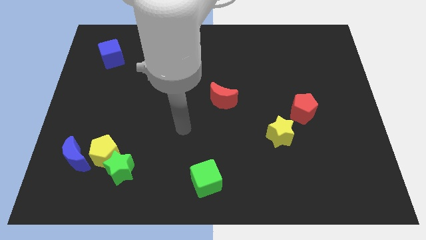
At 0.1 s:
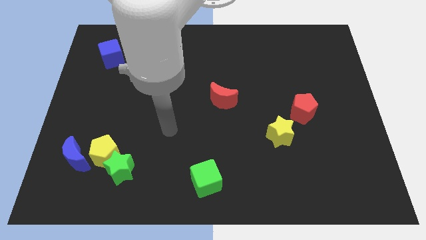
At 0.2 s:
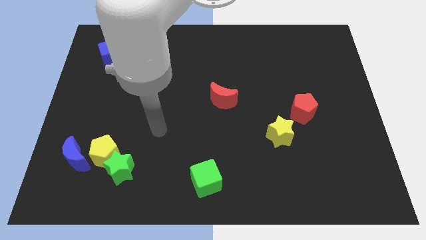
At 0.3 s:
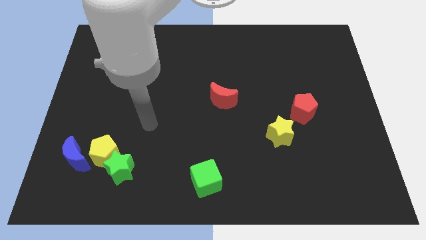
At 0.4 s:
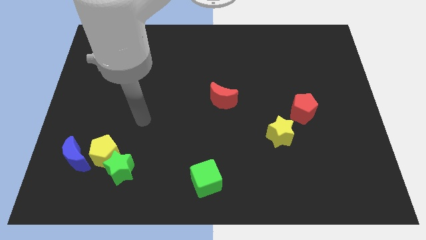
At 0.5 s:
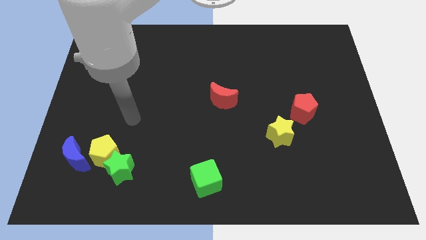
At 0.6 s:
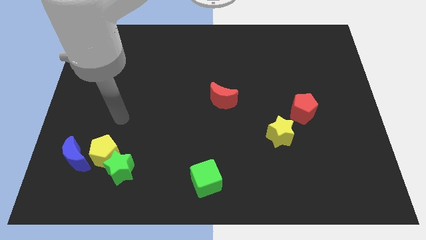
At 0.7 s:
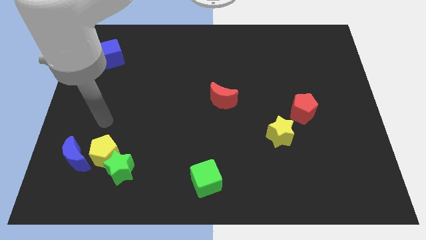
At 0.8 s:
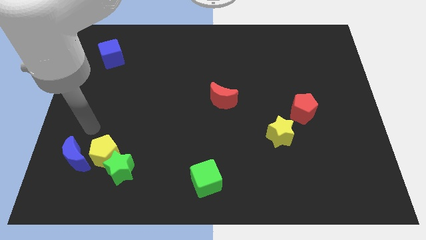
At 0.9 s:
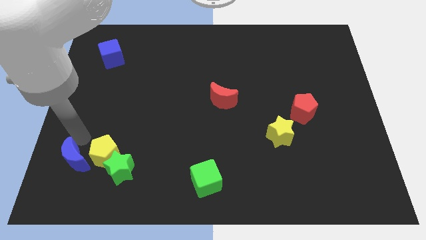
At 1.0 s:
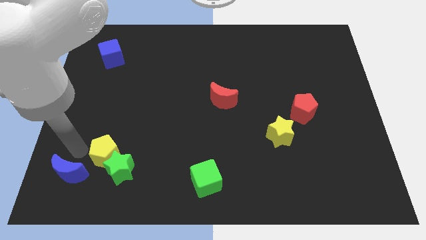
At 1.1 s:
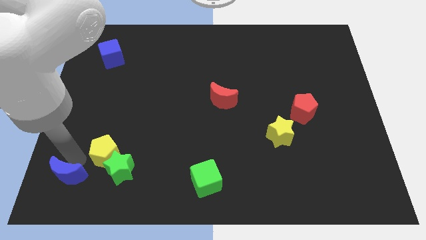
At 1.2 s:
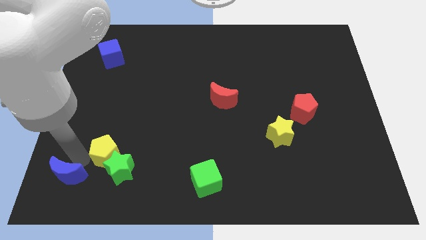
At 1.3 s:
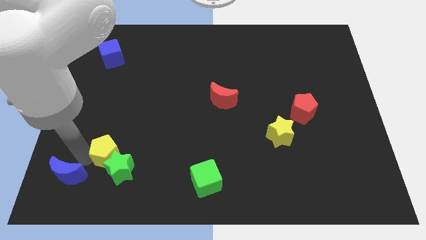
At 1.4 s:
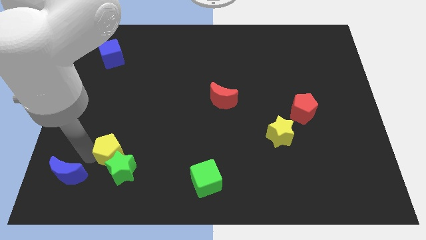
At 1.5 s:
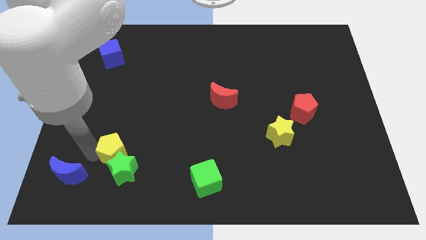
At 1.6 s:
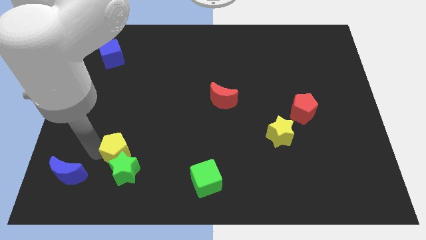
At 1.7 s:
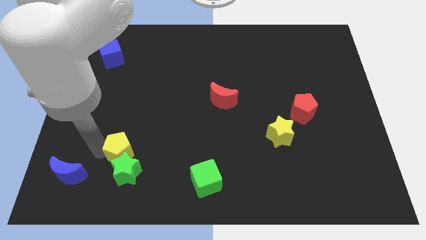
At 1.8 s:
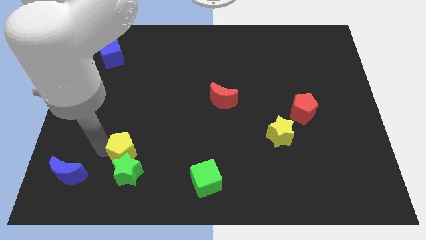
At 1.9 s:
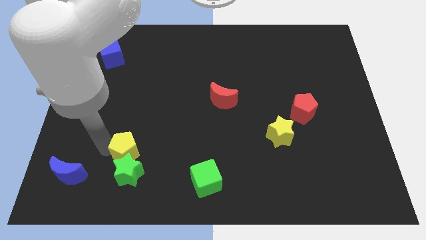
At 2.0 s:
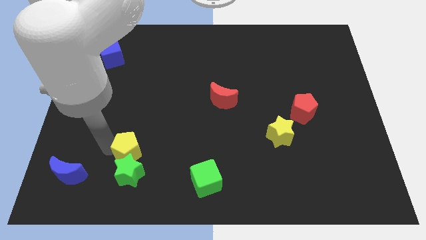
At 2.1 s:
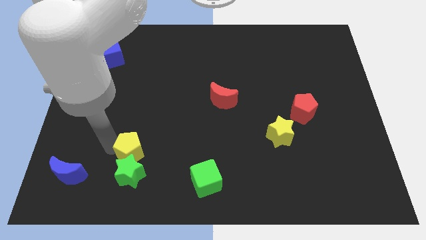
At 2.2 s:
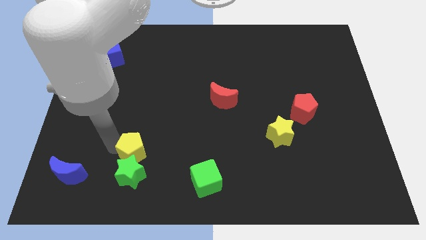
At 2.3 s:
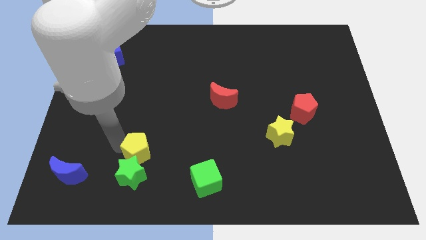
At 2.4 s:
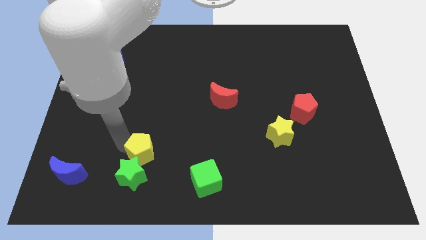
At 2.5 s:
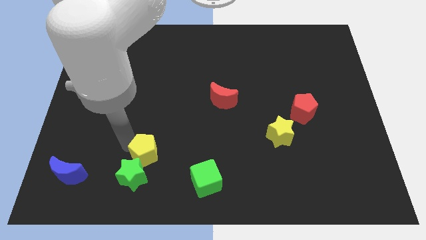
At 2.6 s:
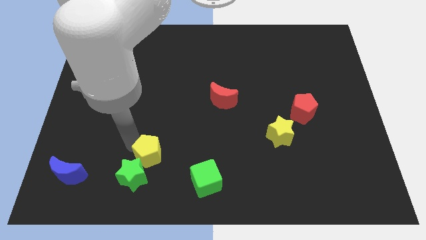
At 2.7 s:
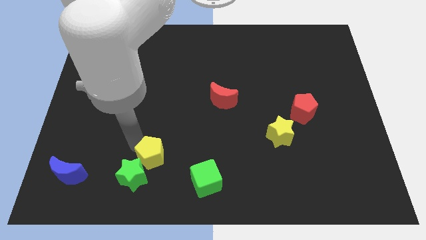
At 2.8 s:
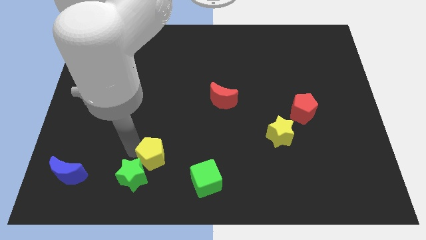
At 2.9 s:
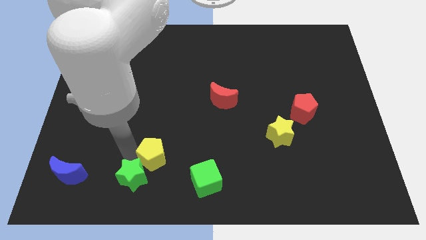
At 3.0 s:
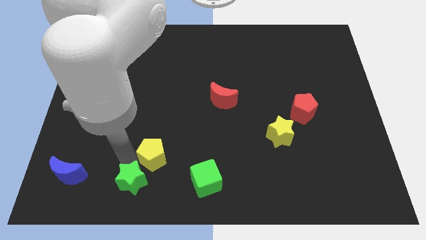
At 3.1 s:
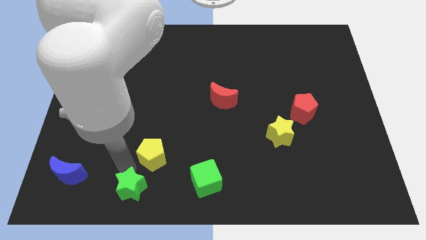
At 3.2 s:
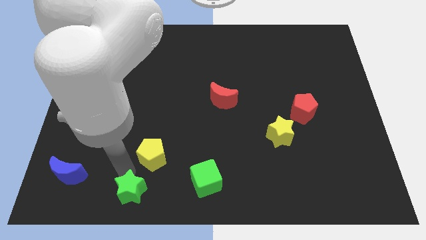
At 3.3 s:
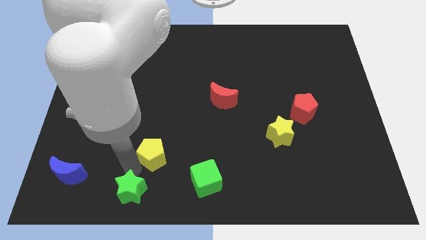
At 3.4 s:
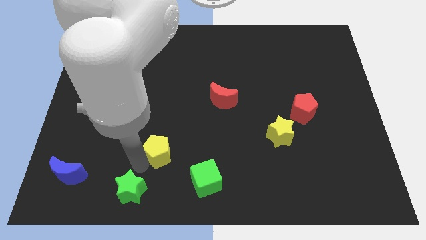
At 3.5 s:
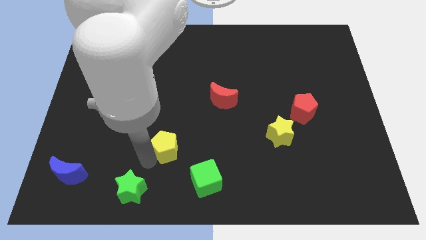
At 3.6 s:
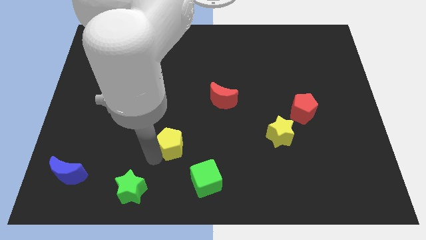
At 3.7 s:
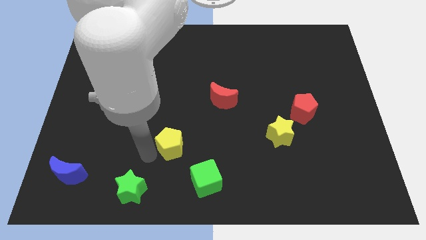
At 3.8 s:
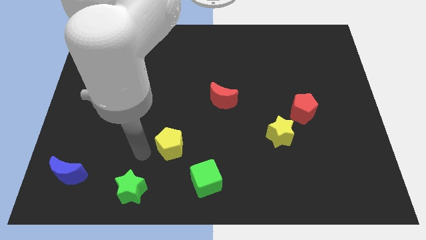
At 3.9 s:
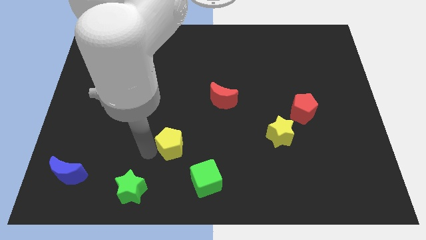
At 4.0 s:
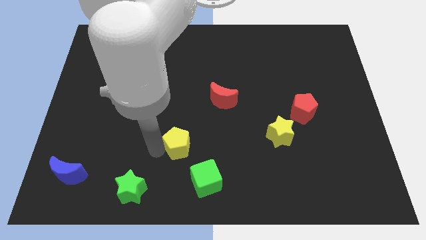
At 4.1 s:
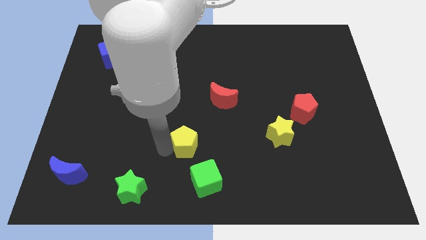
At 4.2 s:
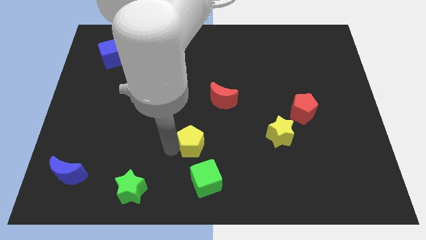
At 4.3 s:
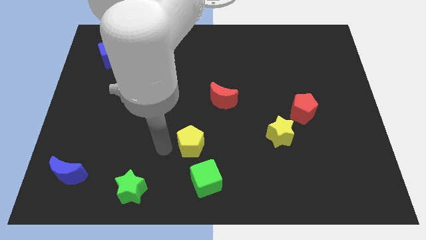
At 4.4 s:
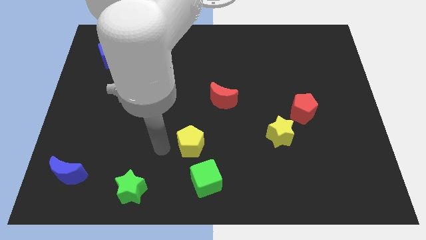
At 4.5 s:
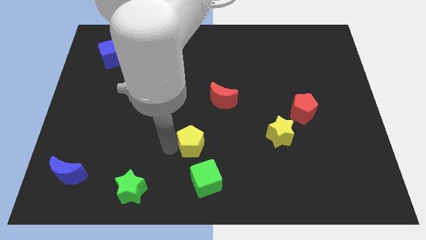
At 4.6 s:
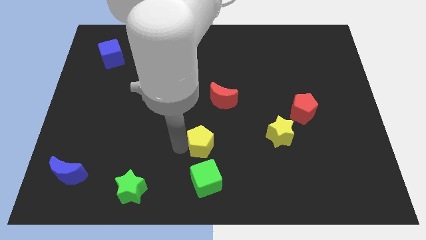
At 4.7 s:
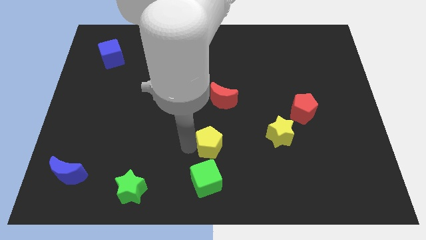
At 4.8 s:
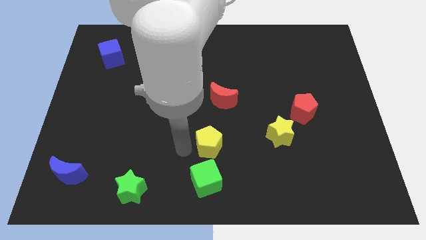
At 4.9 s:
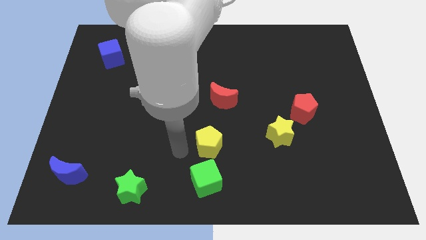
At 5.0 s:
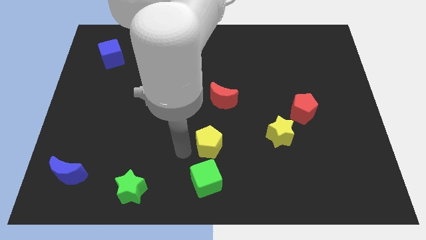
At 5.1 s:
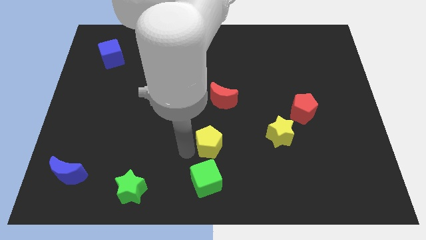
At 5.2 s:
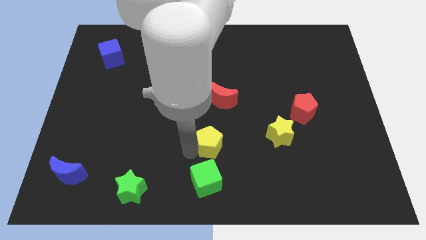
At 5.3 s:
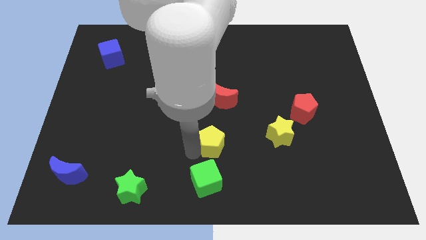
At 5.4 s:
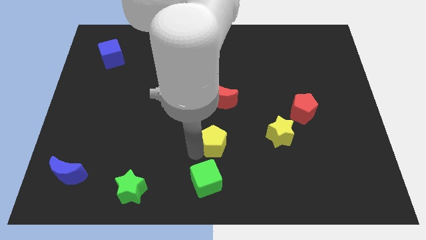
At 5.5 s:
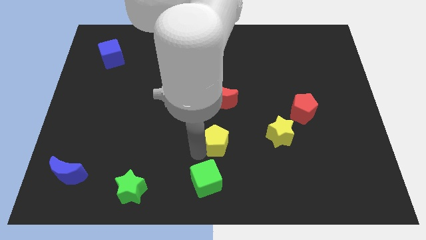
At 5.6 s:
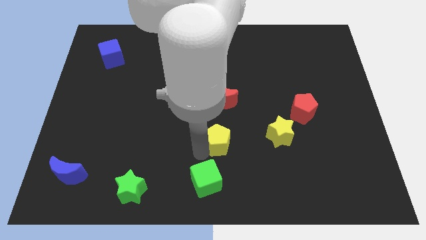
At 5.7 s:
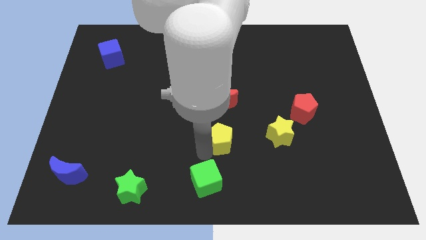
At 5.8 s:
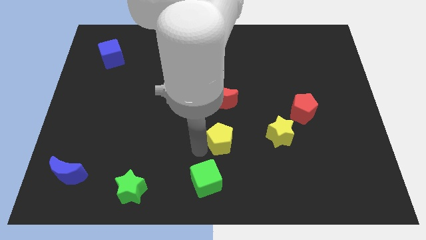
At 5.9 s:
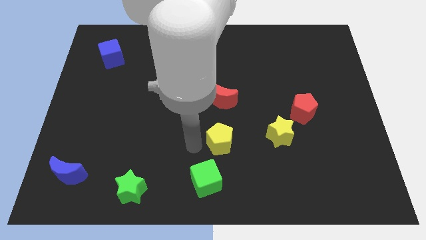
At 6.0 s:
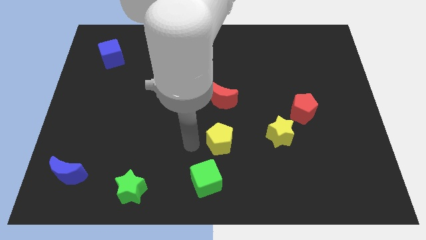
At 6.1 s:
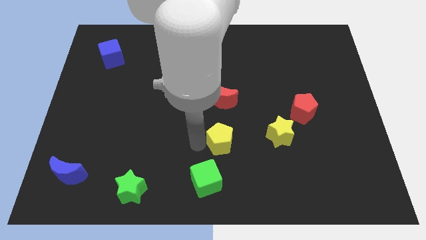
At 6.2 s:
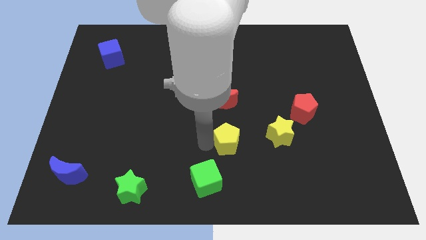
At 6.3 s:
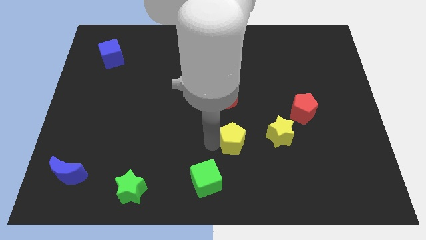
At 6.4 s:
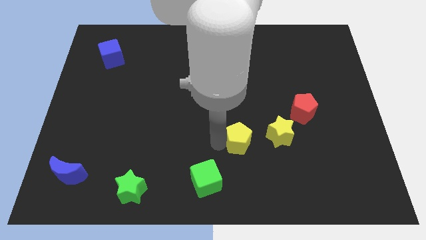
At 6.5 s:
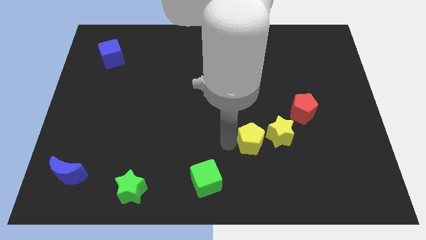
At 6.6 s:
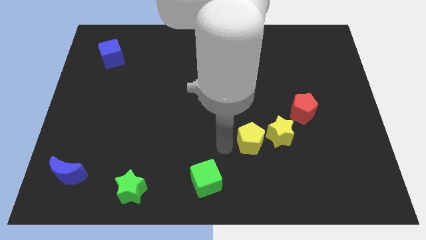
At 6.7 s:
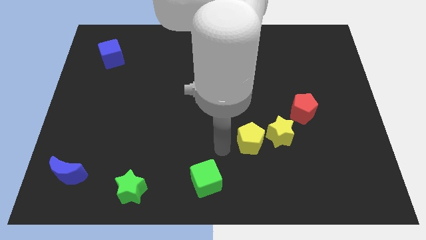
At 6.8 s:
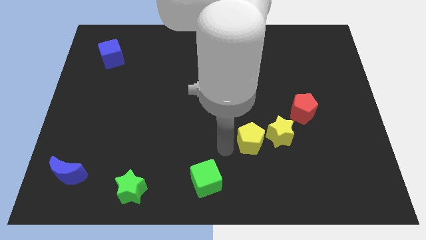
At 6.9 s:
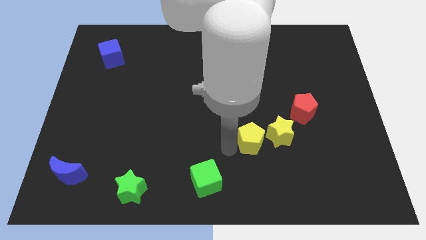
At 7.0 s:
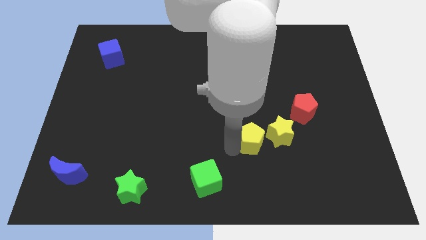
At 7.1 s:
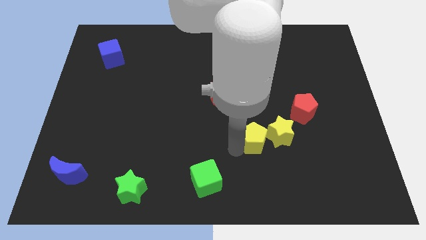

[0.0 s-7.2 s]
push the yellow pentagon next to the yellow star
